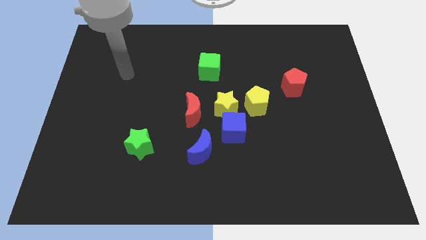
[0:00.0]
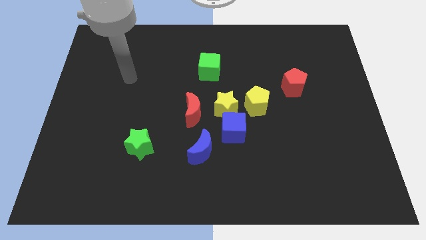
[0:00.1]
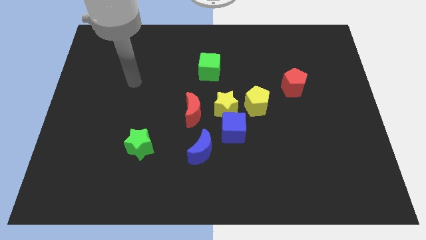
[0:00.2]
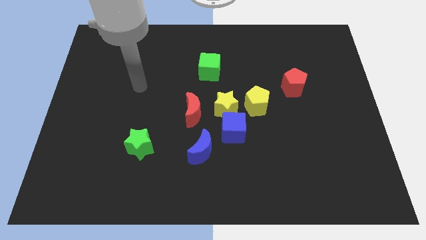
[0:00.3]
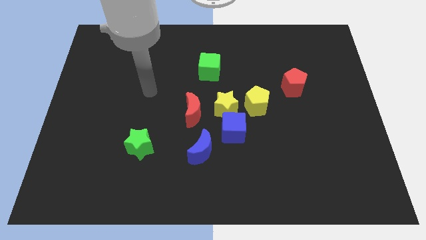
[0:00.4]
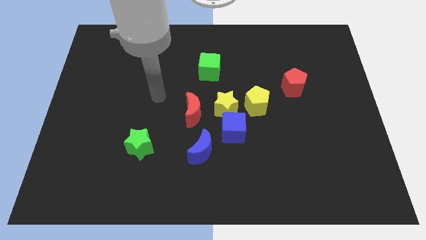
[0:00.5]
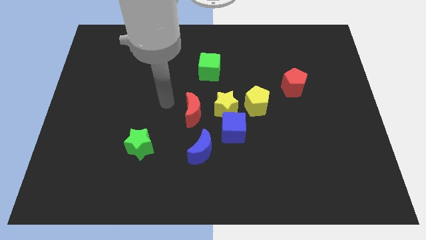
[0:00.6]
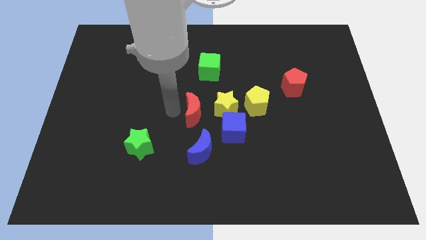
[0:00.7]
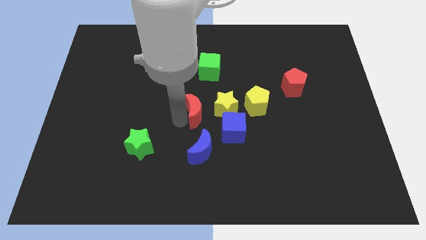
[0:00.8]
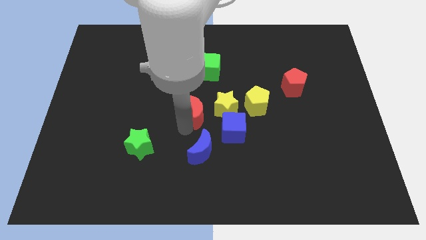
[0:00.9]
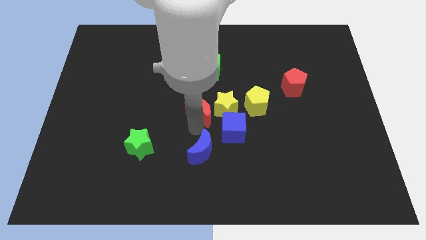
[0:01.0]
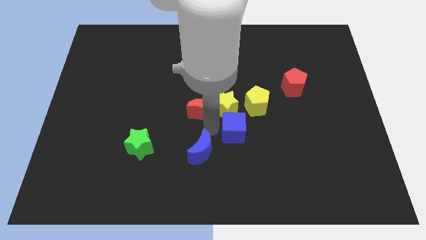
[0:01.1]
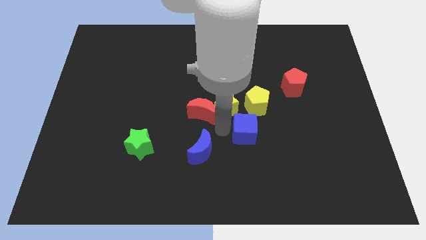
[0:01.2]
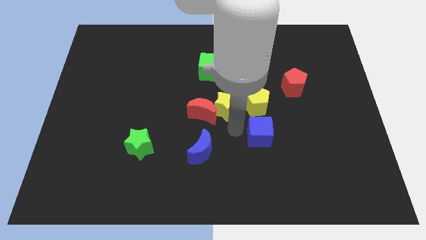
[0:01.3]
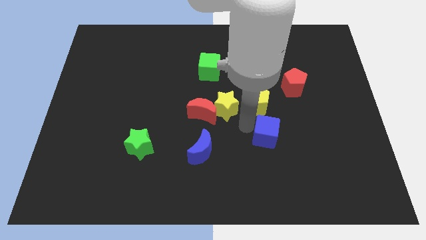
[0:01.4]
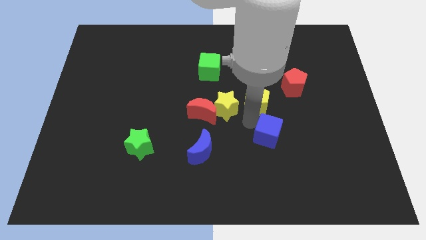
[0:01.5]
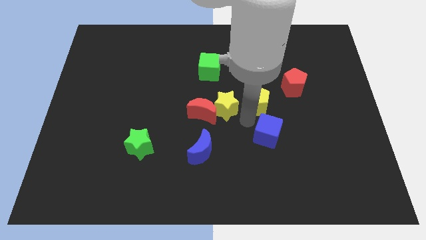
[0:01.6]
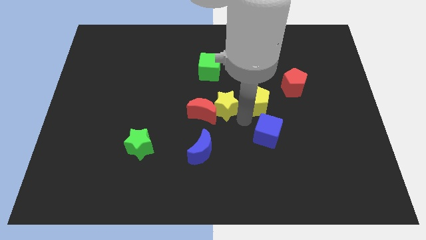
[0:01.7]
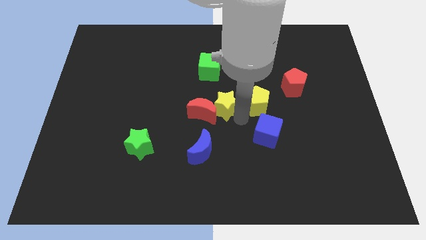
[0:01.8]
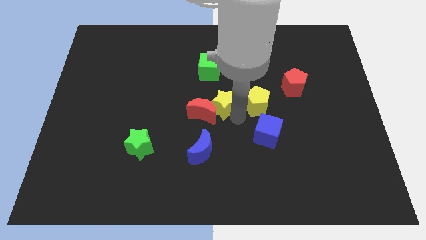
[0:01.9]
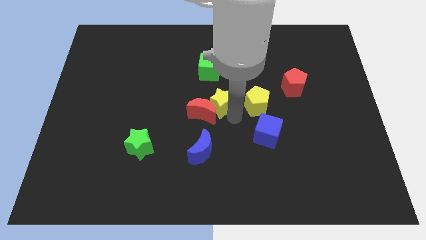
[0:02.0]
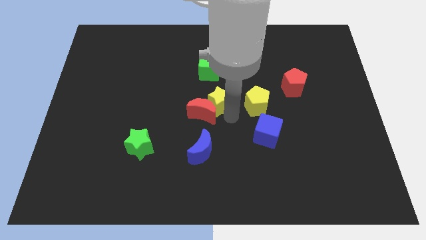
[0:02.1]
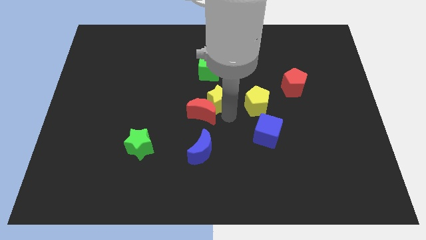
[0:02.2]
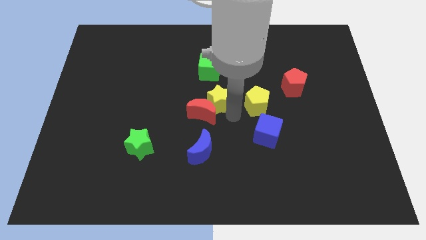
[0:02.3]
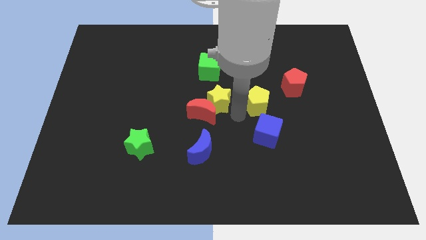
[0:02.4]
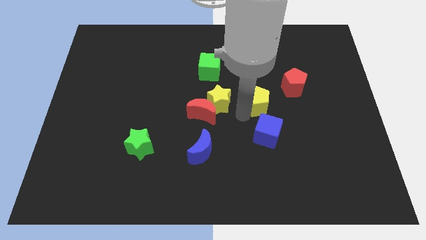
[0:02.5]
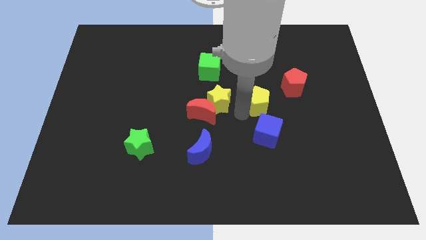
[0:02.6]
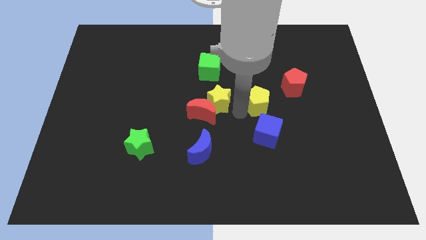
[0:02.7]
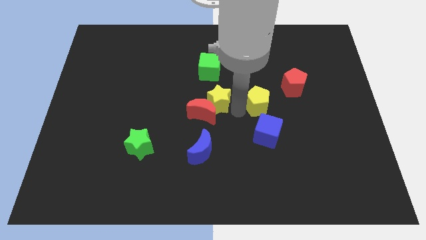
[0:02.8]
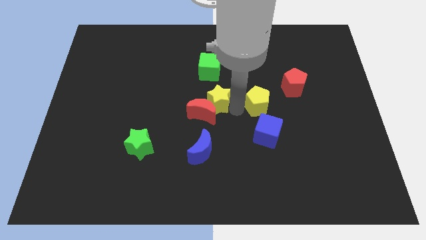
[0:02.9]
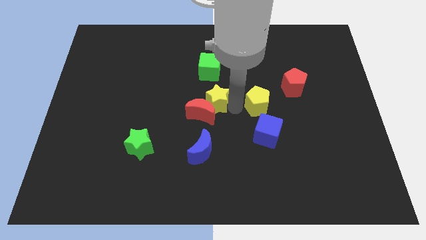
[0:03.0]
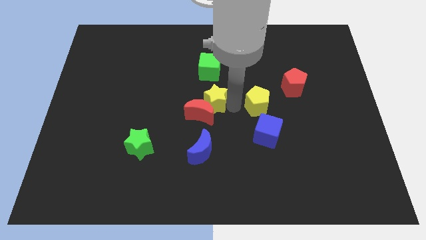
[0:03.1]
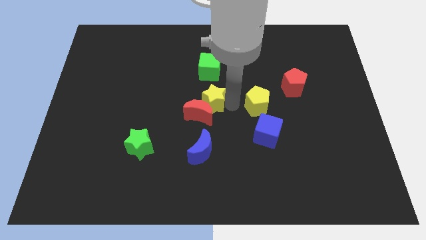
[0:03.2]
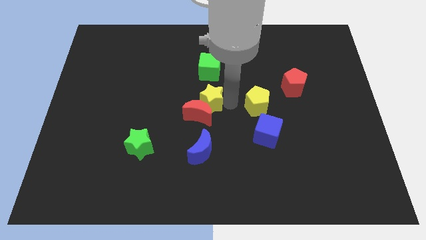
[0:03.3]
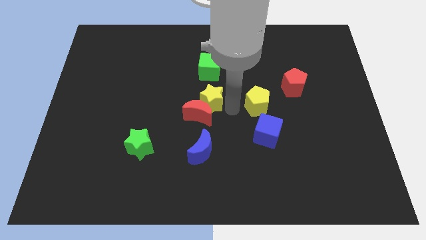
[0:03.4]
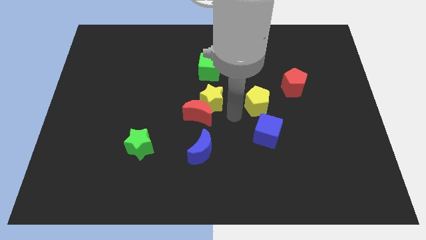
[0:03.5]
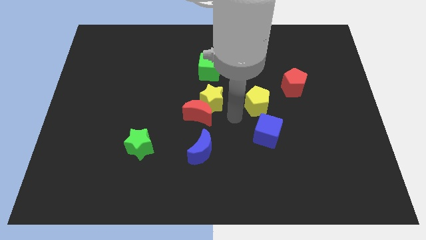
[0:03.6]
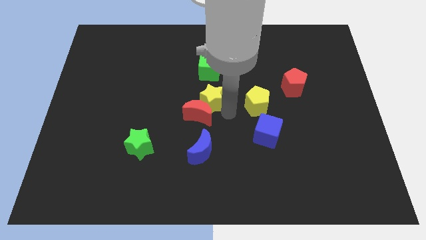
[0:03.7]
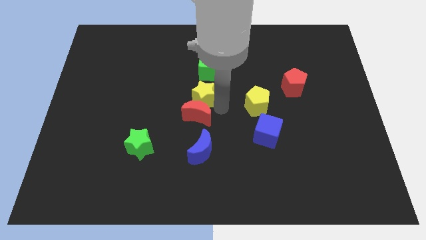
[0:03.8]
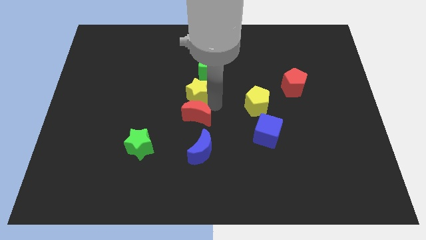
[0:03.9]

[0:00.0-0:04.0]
slightly push the yellow star up and then left

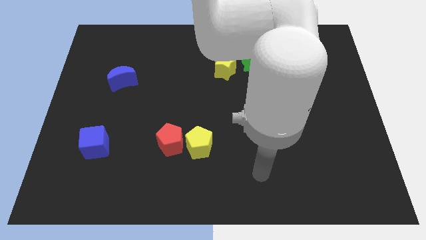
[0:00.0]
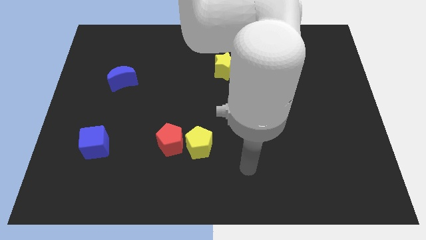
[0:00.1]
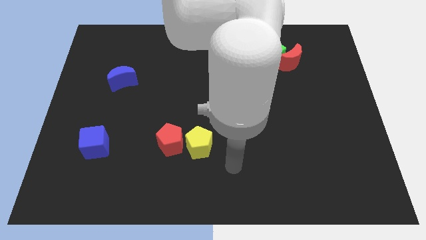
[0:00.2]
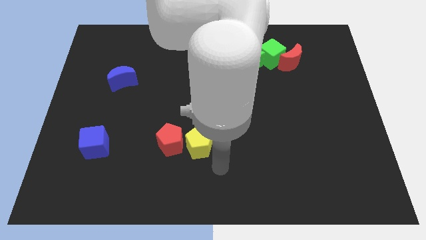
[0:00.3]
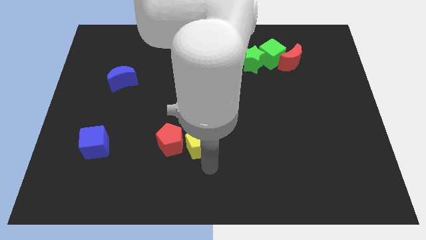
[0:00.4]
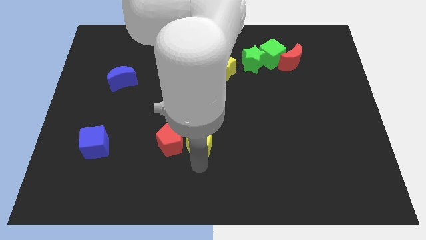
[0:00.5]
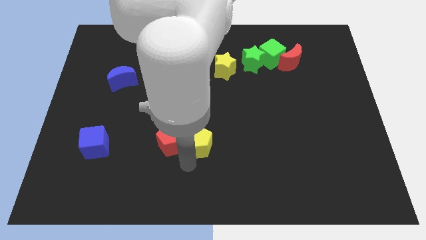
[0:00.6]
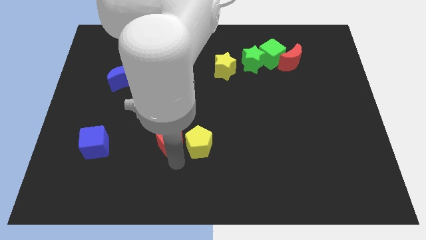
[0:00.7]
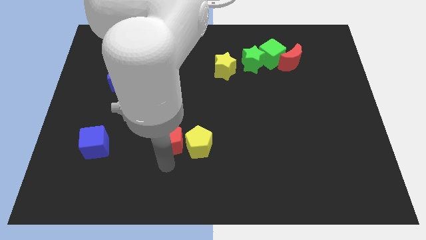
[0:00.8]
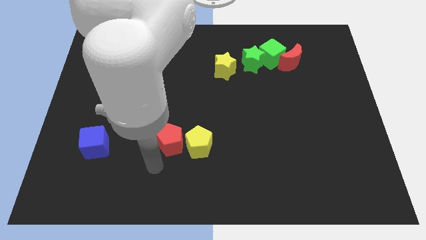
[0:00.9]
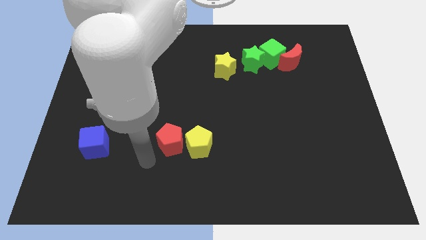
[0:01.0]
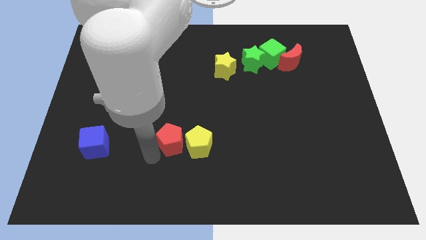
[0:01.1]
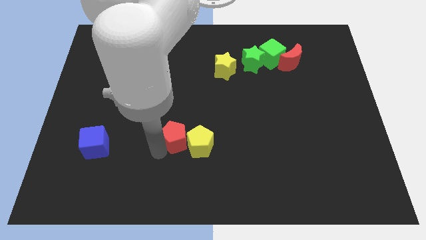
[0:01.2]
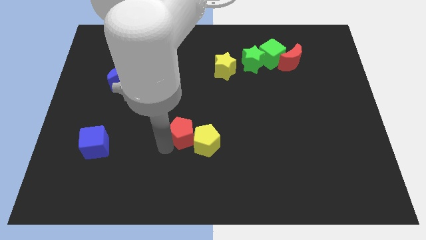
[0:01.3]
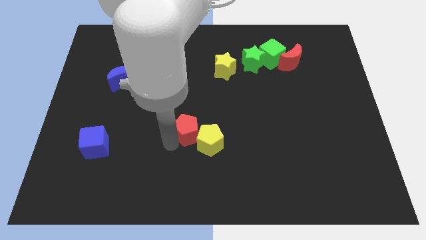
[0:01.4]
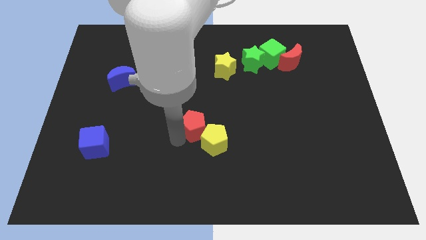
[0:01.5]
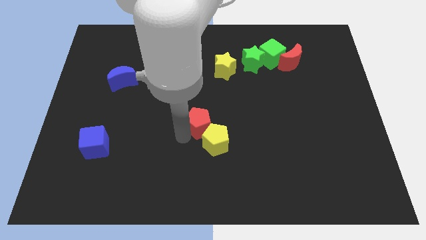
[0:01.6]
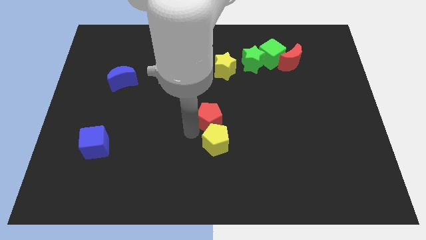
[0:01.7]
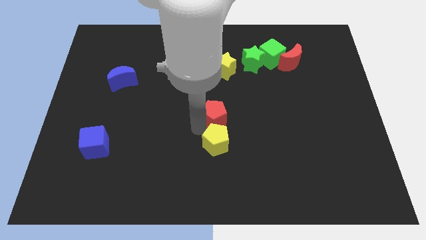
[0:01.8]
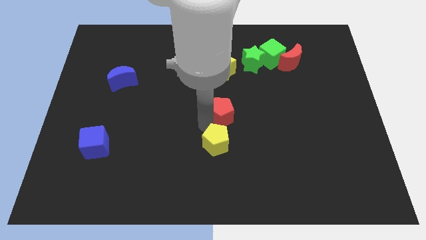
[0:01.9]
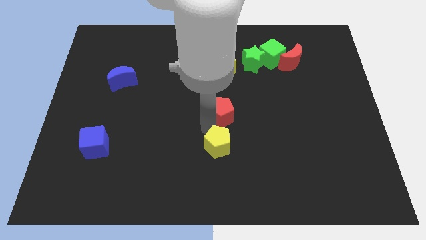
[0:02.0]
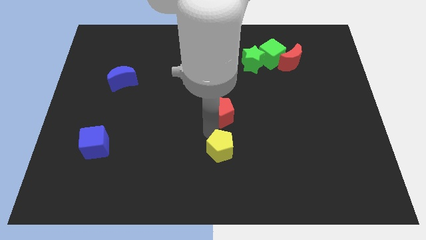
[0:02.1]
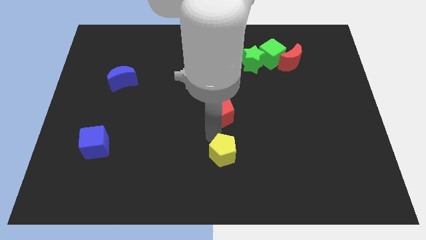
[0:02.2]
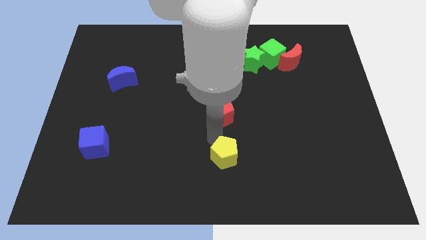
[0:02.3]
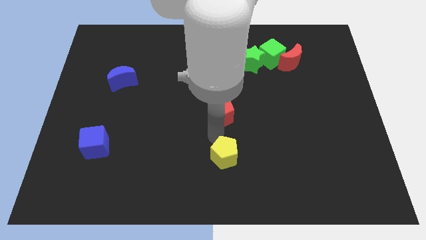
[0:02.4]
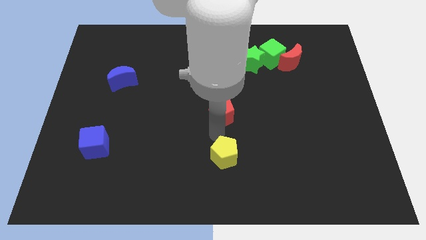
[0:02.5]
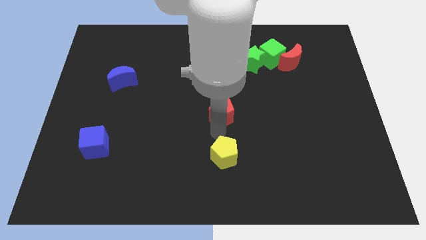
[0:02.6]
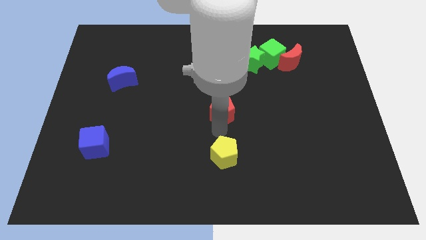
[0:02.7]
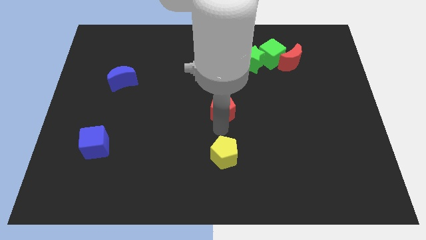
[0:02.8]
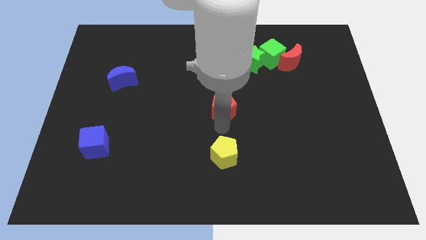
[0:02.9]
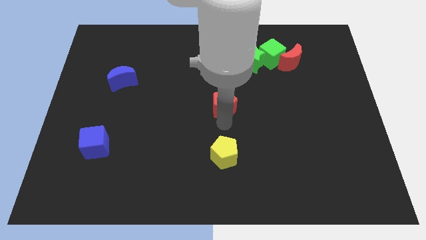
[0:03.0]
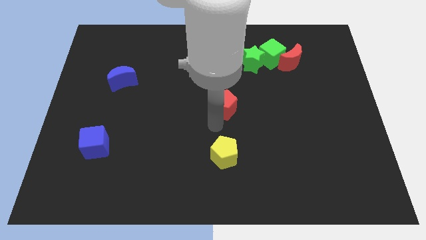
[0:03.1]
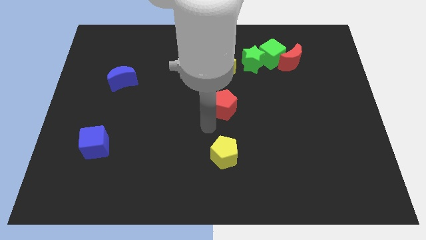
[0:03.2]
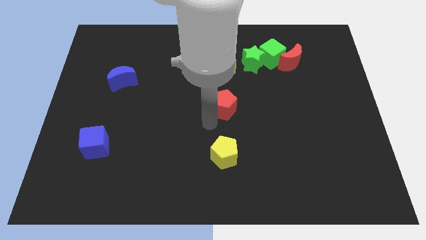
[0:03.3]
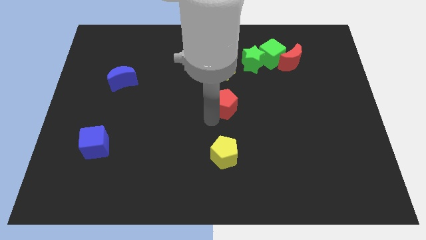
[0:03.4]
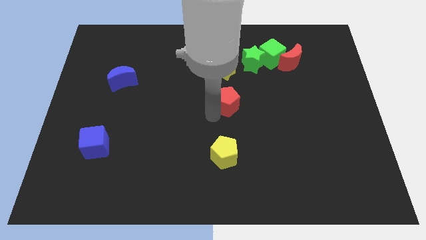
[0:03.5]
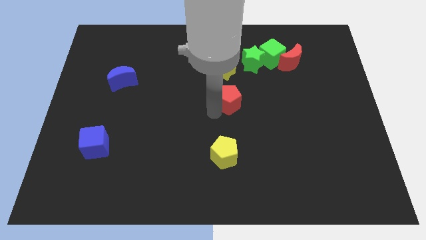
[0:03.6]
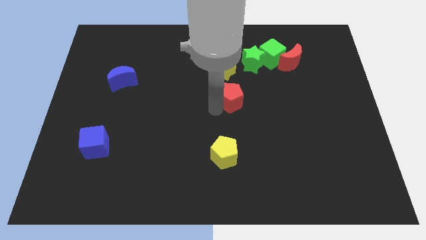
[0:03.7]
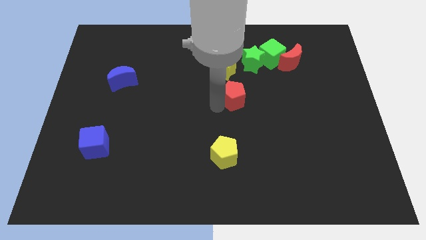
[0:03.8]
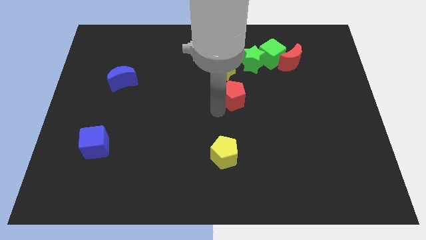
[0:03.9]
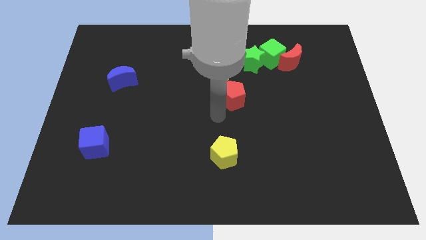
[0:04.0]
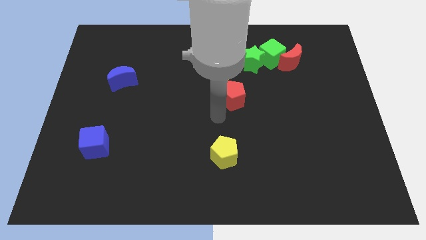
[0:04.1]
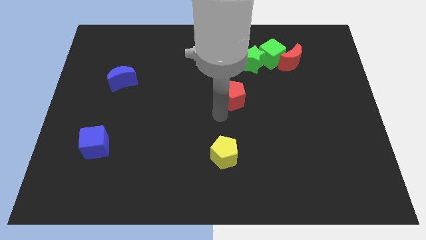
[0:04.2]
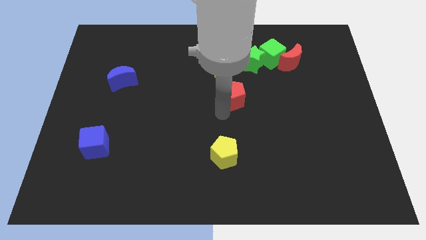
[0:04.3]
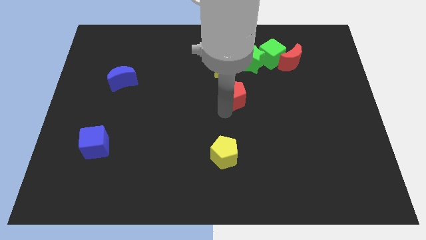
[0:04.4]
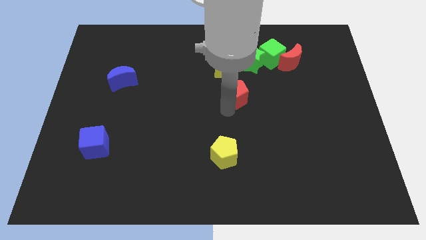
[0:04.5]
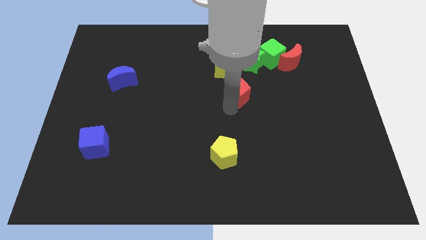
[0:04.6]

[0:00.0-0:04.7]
push the red pentagon diagonally upwards and right
